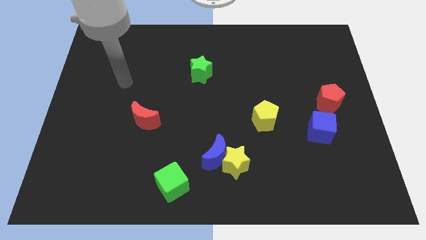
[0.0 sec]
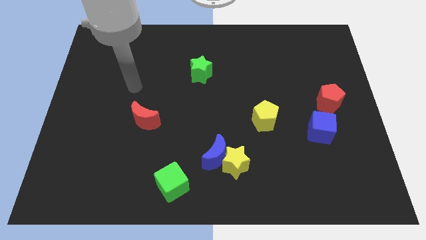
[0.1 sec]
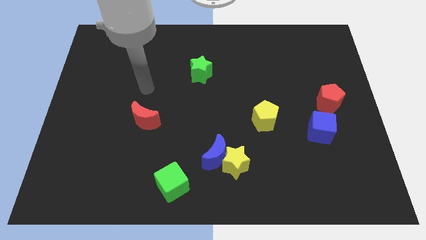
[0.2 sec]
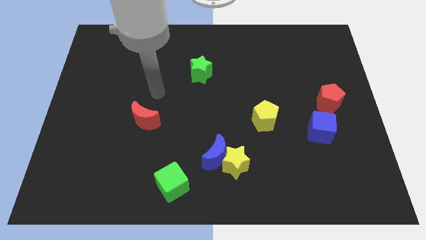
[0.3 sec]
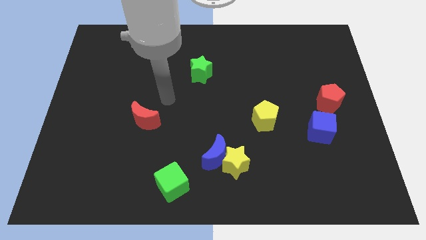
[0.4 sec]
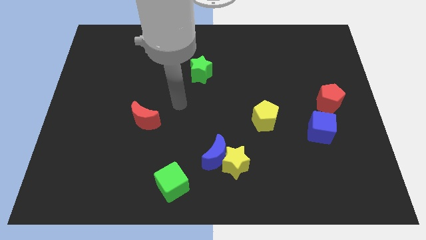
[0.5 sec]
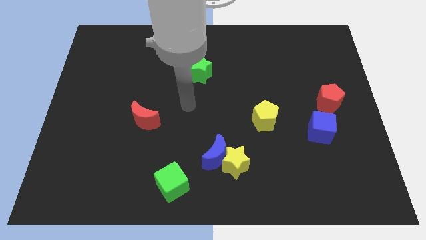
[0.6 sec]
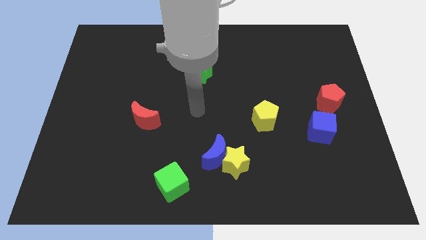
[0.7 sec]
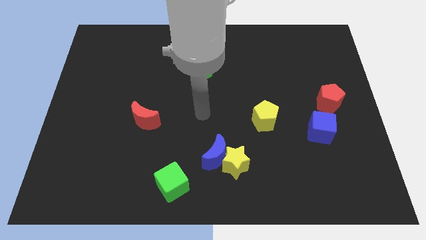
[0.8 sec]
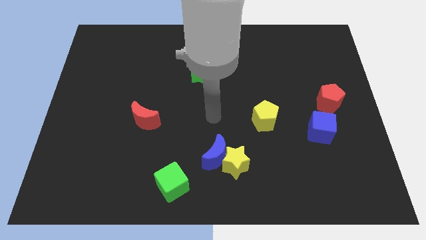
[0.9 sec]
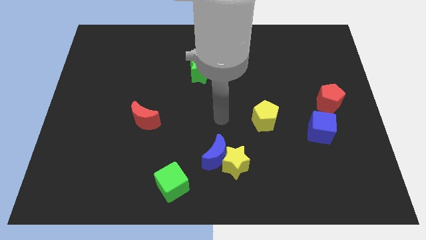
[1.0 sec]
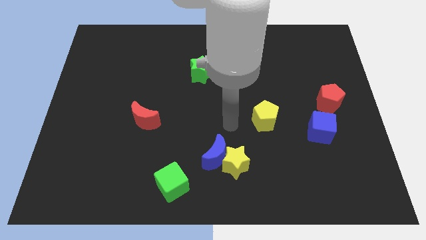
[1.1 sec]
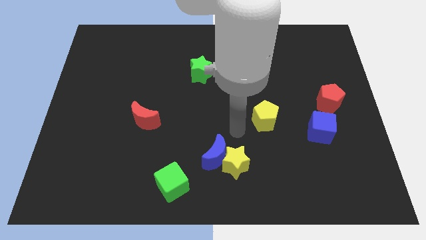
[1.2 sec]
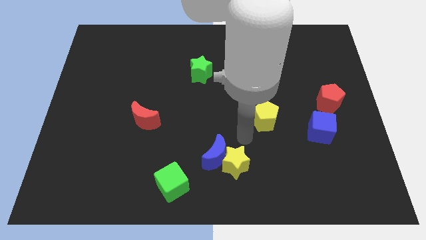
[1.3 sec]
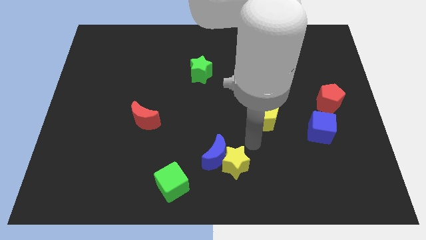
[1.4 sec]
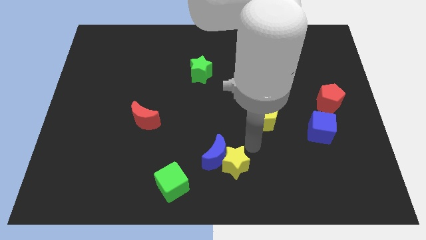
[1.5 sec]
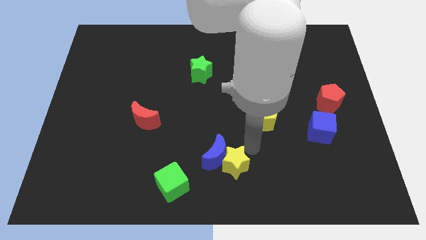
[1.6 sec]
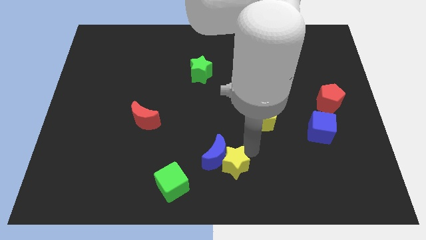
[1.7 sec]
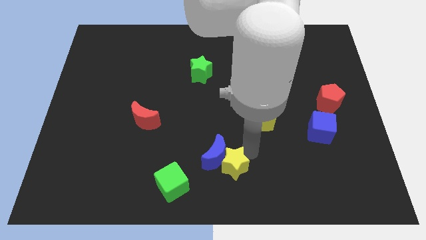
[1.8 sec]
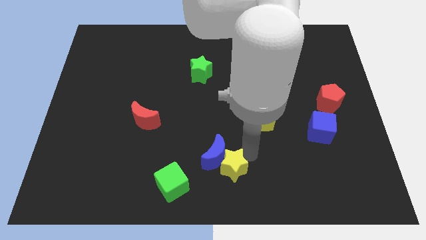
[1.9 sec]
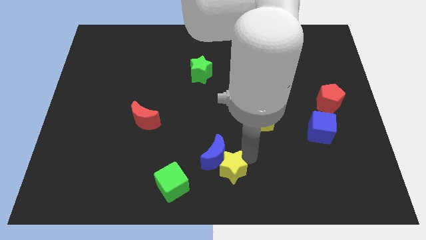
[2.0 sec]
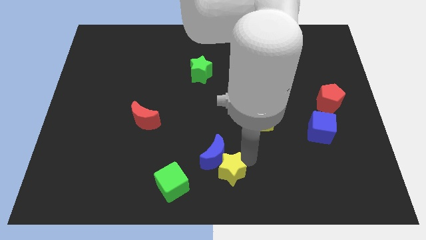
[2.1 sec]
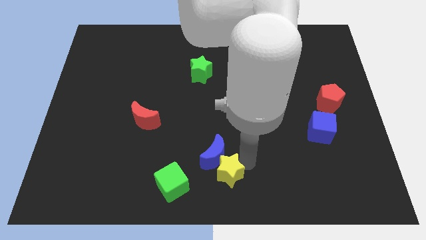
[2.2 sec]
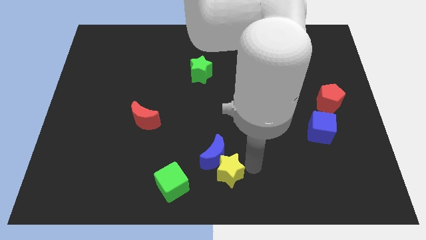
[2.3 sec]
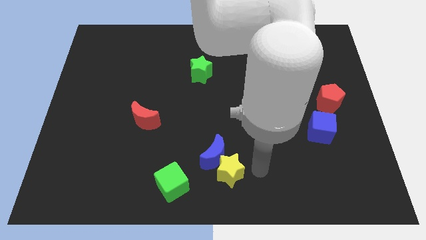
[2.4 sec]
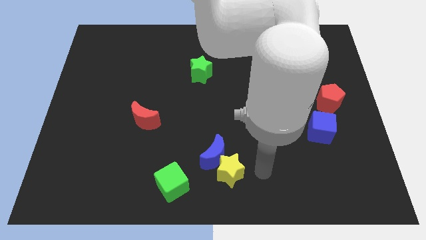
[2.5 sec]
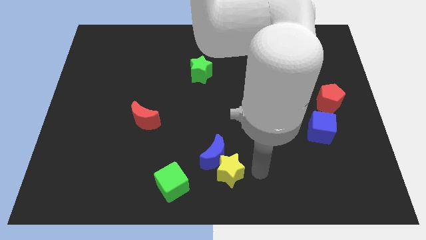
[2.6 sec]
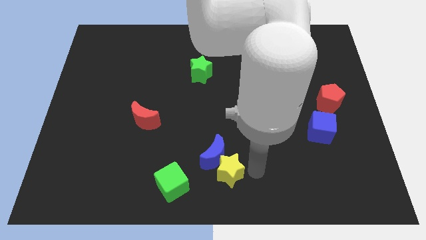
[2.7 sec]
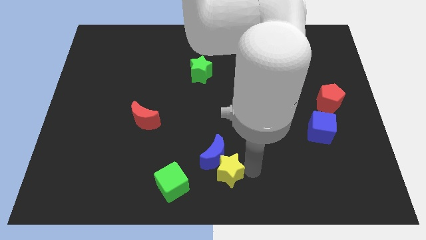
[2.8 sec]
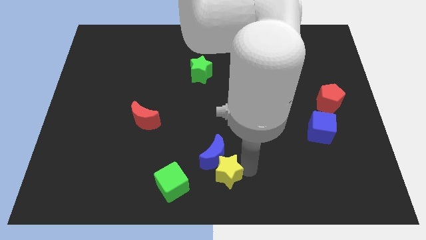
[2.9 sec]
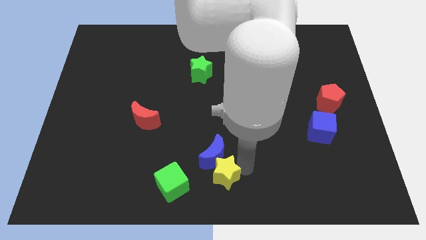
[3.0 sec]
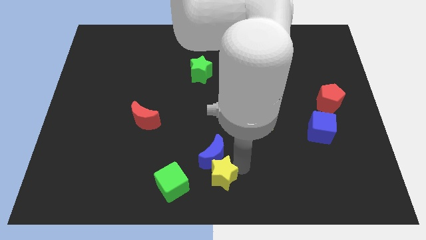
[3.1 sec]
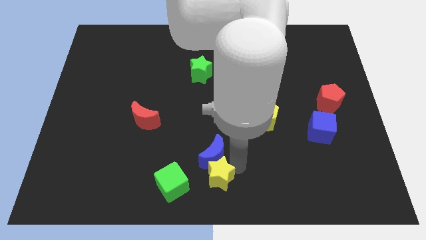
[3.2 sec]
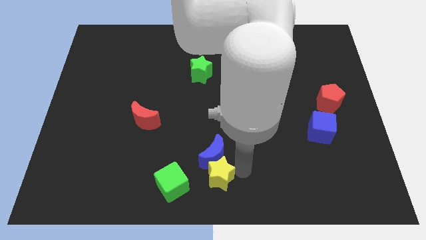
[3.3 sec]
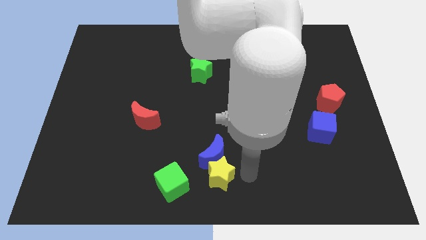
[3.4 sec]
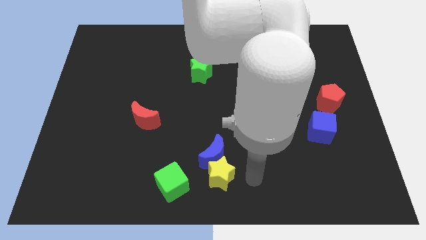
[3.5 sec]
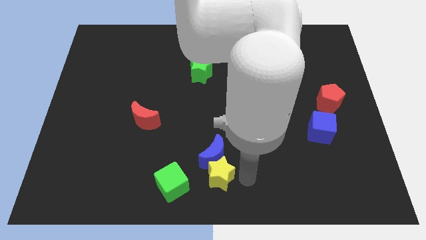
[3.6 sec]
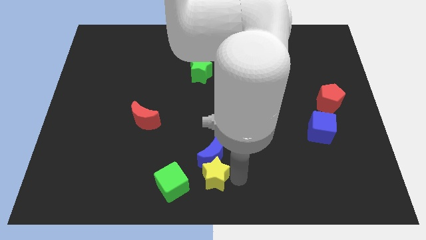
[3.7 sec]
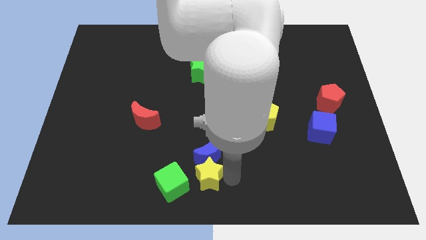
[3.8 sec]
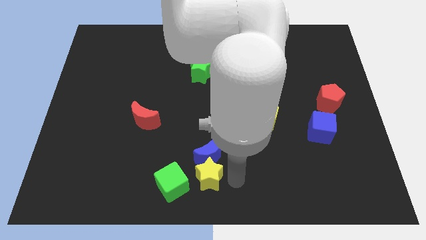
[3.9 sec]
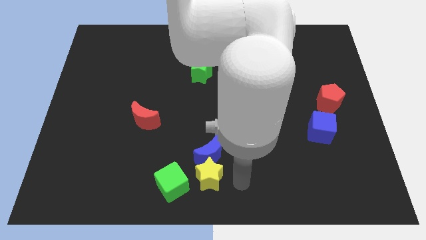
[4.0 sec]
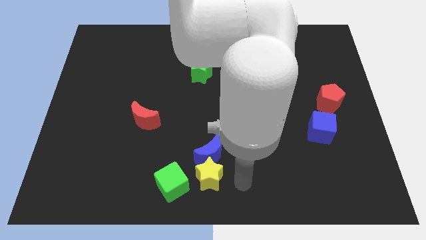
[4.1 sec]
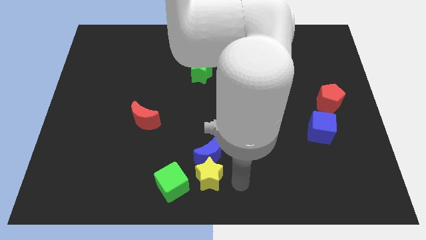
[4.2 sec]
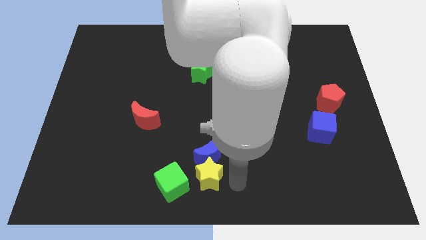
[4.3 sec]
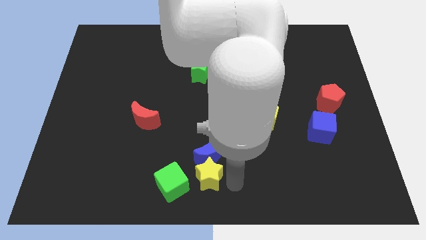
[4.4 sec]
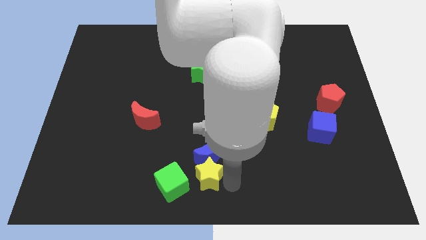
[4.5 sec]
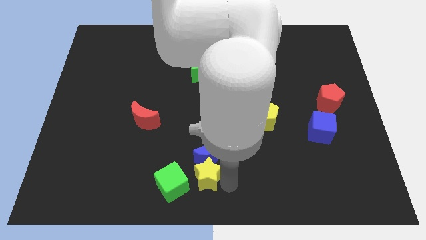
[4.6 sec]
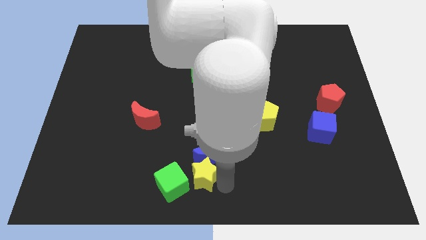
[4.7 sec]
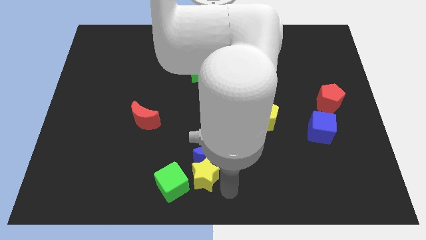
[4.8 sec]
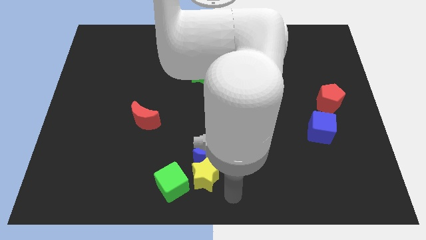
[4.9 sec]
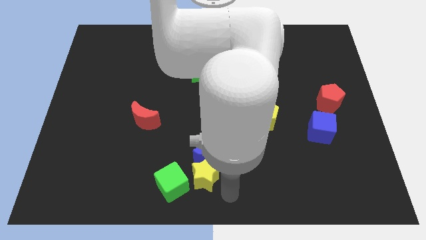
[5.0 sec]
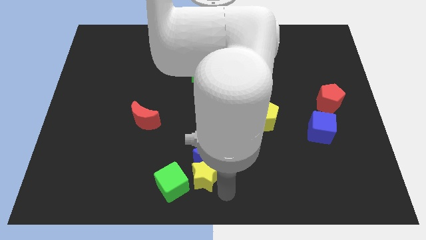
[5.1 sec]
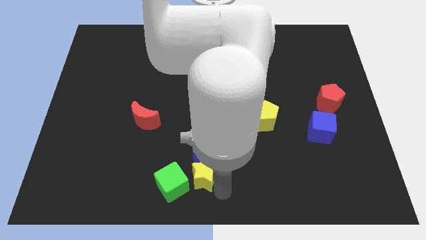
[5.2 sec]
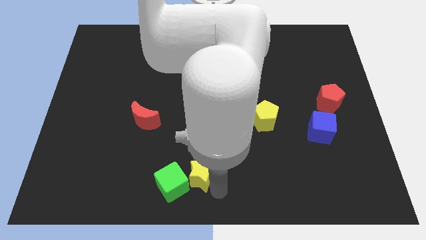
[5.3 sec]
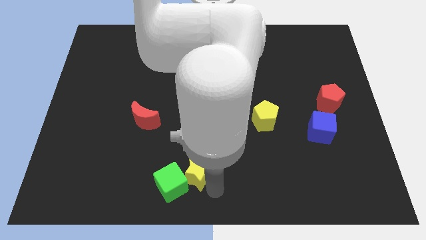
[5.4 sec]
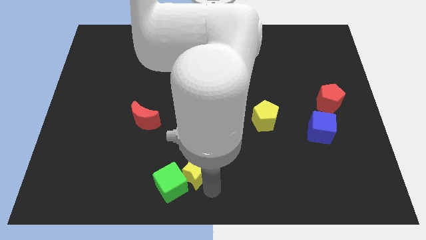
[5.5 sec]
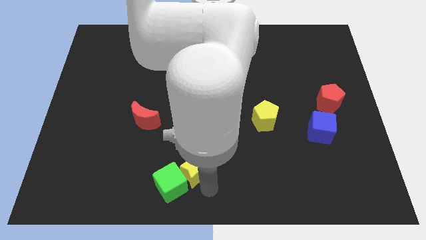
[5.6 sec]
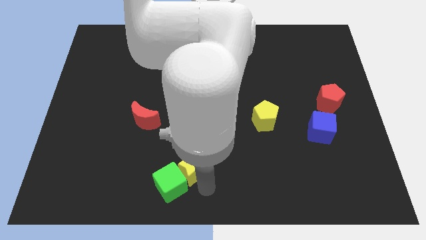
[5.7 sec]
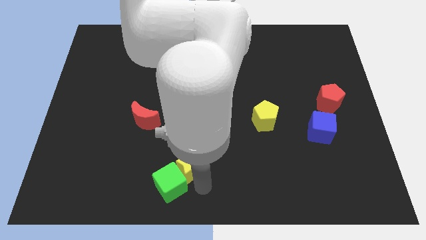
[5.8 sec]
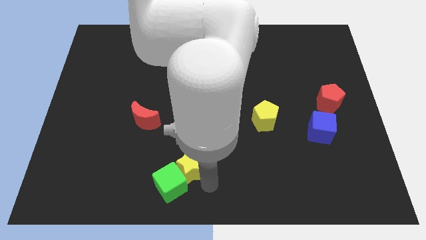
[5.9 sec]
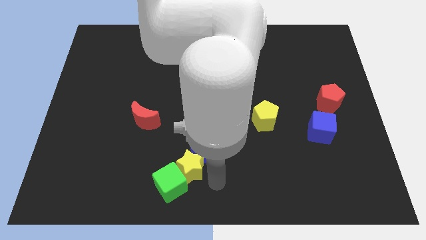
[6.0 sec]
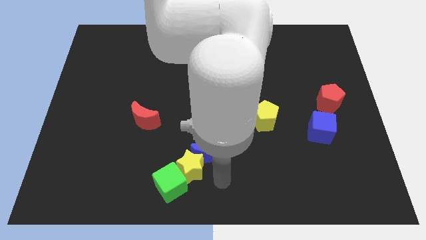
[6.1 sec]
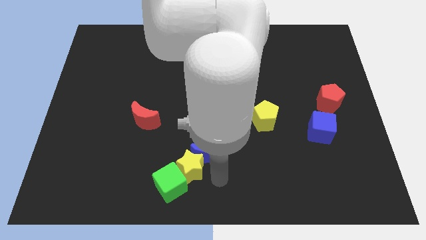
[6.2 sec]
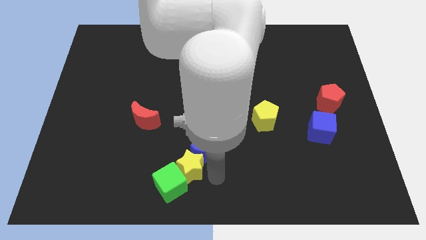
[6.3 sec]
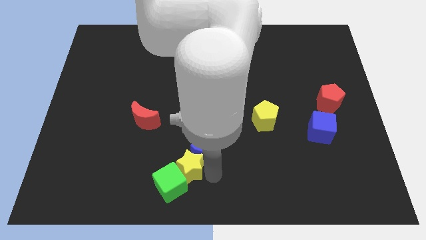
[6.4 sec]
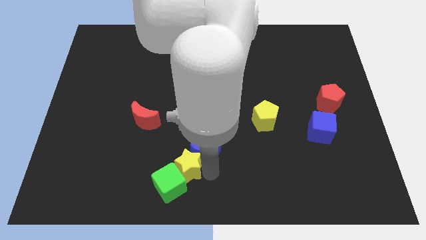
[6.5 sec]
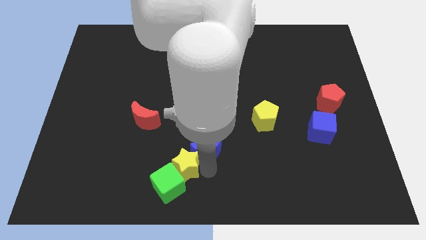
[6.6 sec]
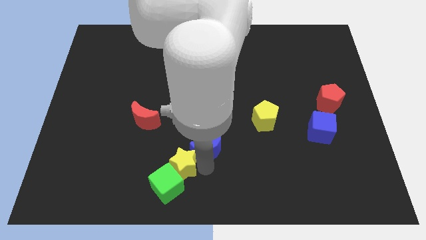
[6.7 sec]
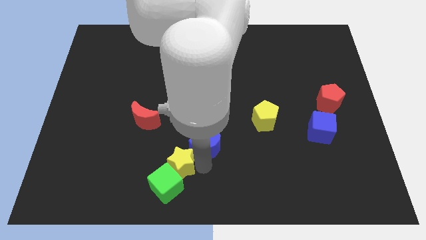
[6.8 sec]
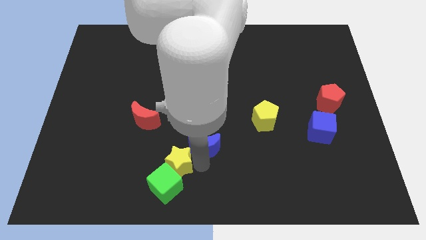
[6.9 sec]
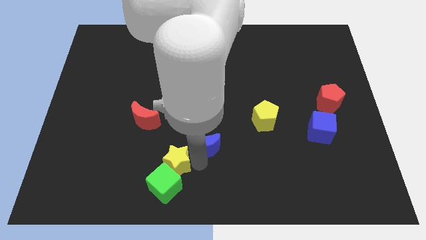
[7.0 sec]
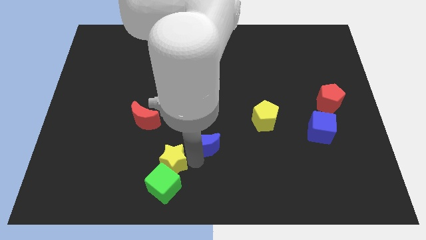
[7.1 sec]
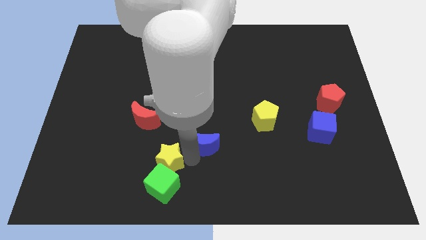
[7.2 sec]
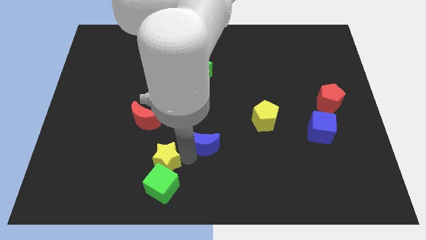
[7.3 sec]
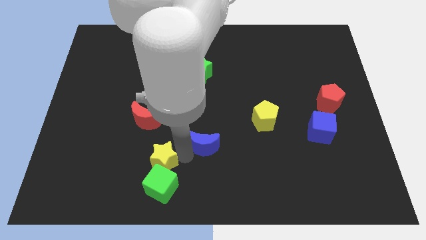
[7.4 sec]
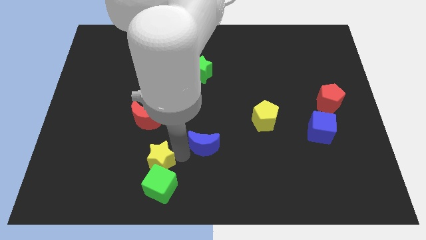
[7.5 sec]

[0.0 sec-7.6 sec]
push the yellow star to the bottom side of the red moon
